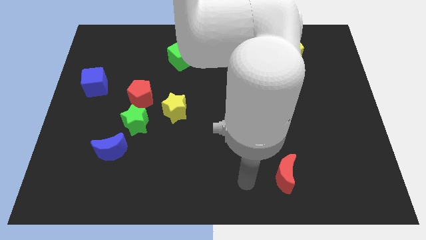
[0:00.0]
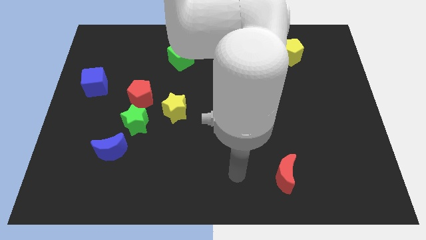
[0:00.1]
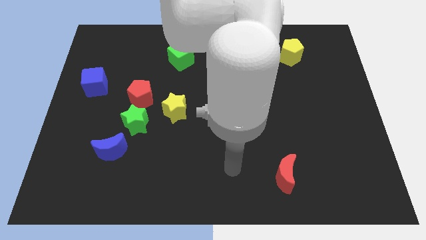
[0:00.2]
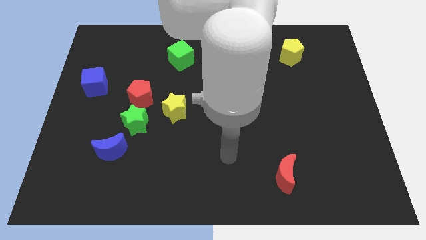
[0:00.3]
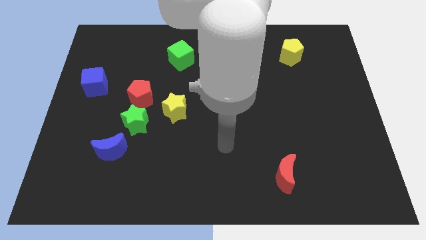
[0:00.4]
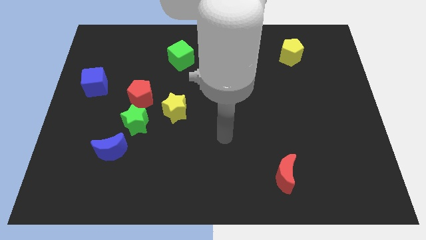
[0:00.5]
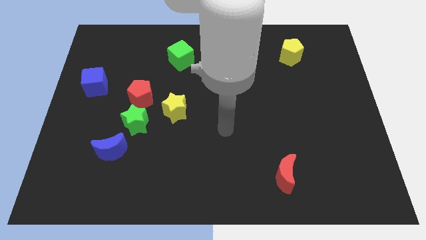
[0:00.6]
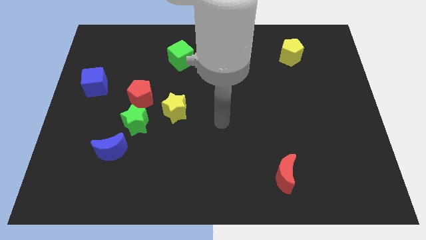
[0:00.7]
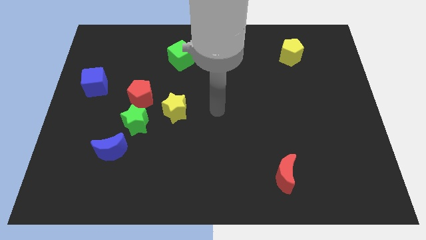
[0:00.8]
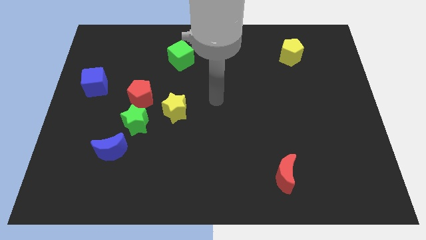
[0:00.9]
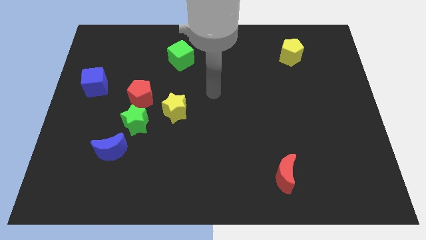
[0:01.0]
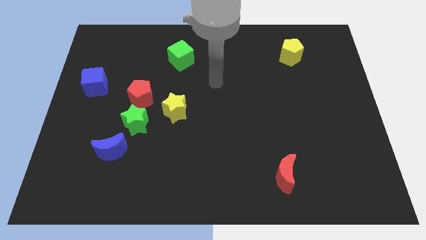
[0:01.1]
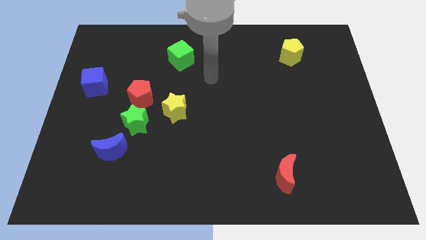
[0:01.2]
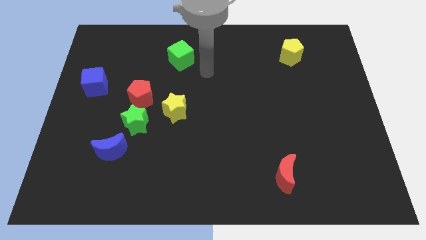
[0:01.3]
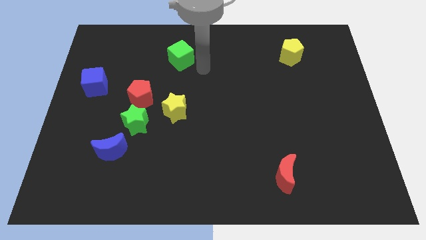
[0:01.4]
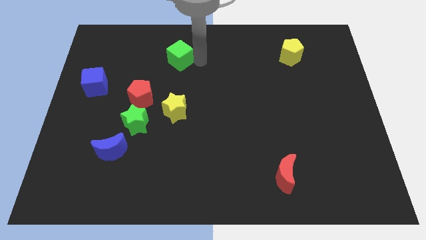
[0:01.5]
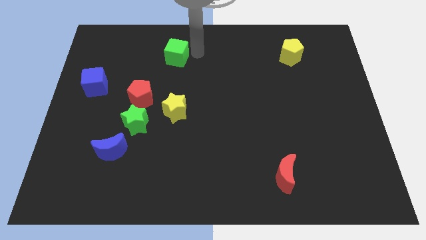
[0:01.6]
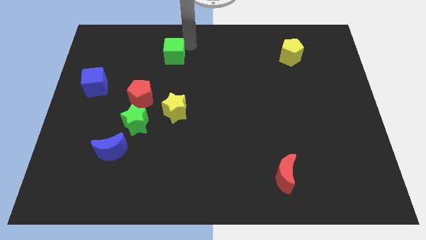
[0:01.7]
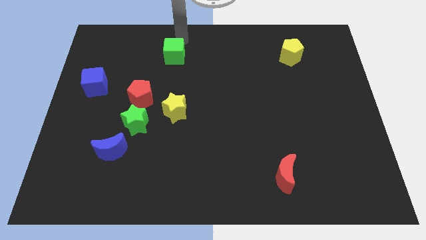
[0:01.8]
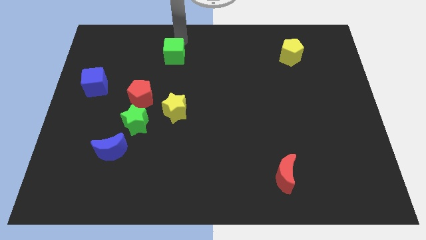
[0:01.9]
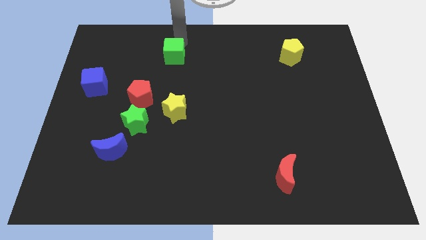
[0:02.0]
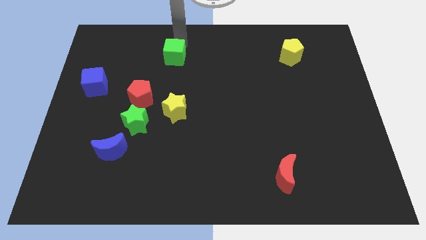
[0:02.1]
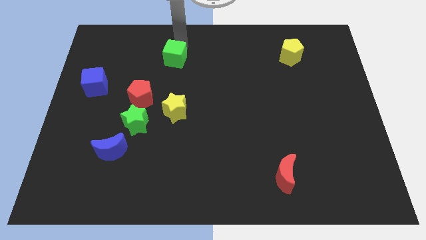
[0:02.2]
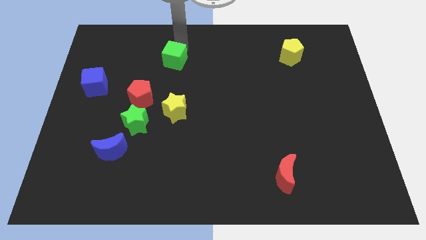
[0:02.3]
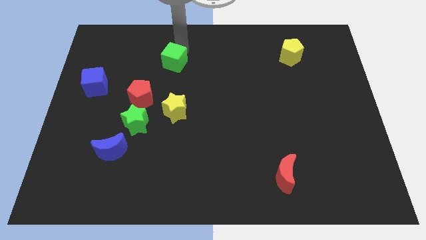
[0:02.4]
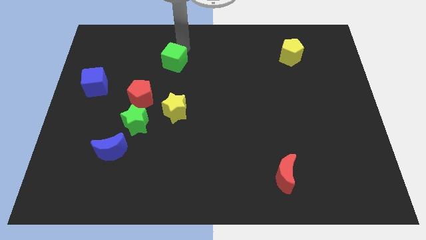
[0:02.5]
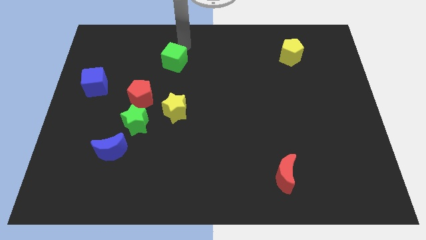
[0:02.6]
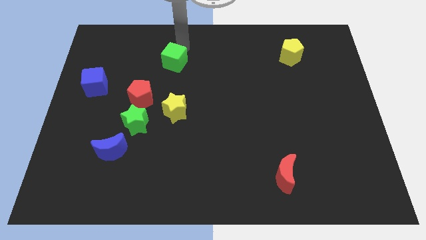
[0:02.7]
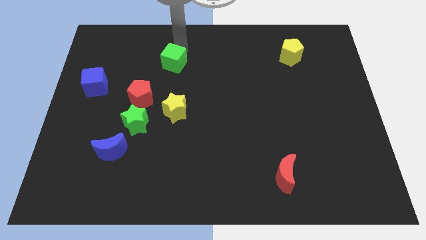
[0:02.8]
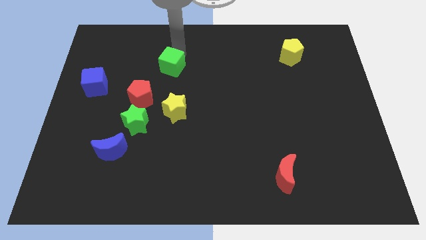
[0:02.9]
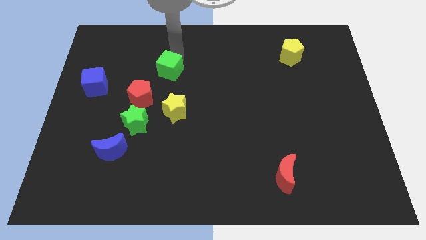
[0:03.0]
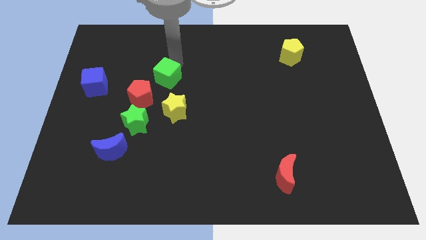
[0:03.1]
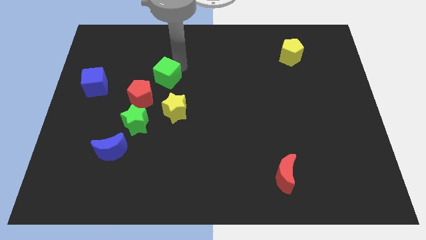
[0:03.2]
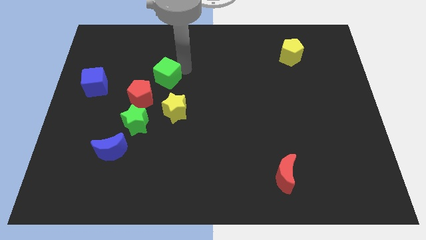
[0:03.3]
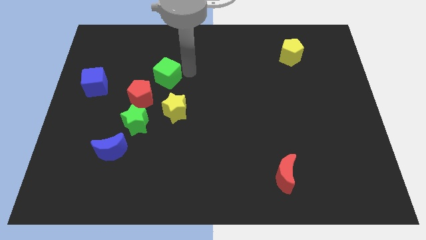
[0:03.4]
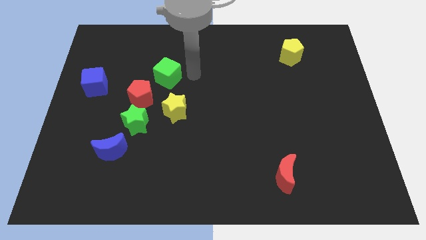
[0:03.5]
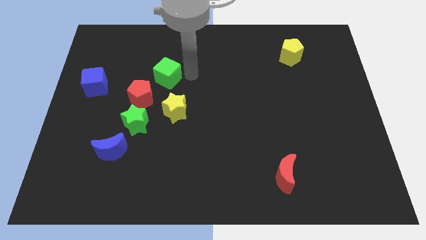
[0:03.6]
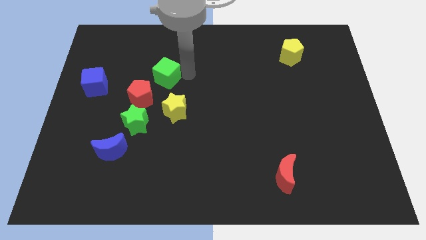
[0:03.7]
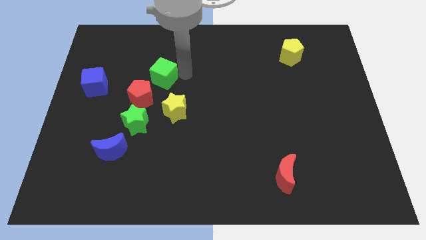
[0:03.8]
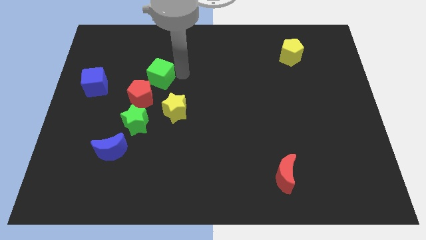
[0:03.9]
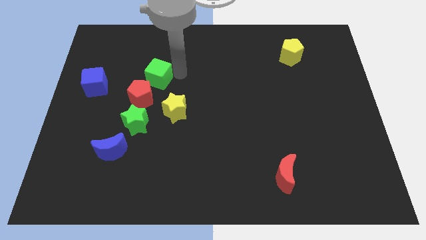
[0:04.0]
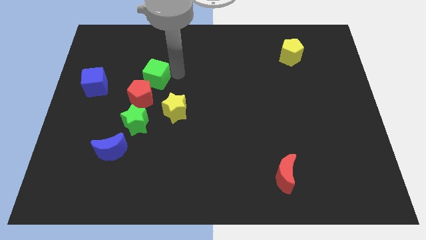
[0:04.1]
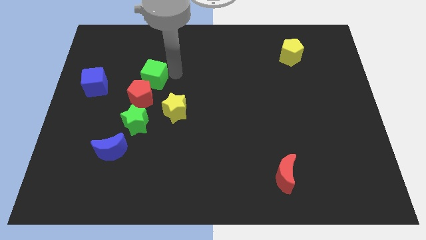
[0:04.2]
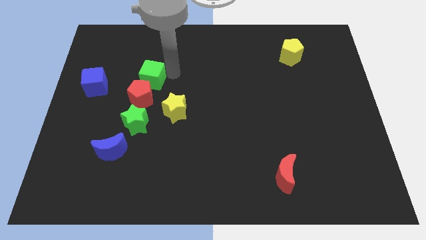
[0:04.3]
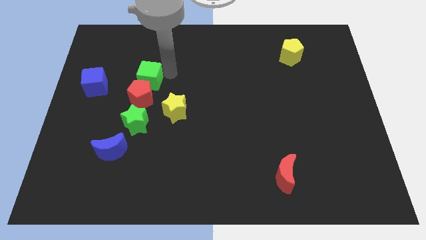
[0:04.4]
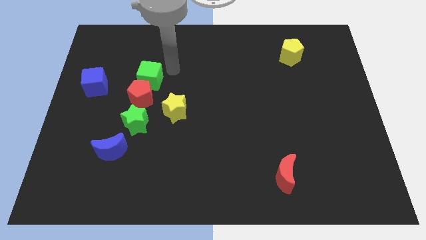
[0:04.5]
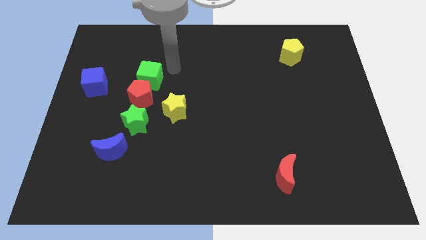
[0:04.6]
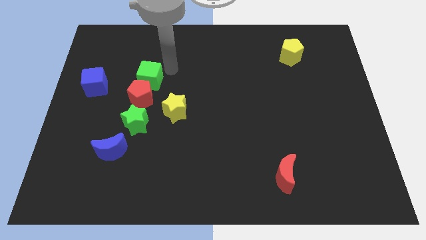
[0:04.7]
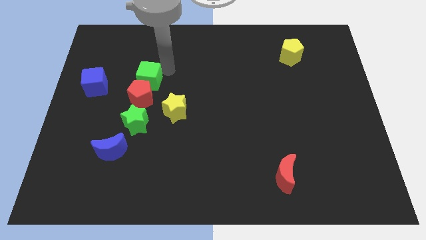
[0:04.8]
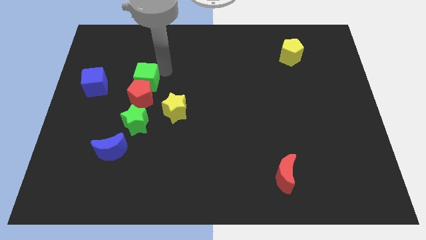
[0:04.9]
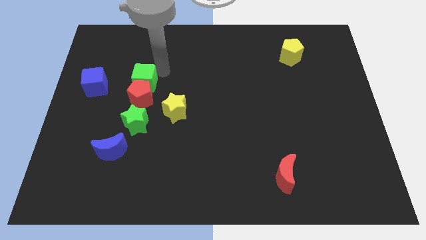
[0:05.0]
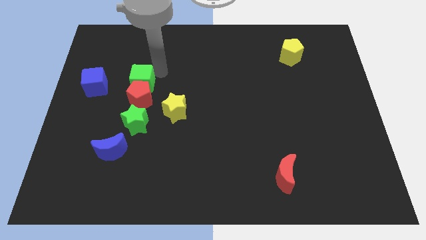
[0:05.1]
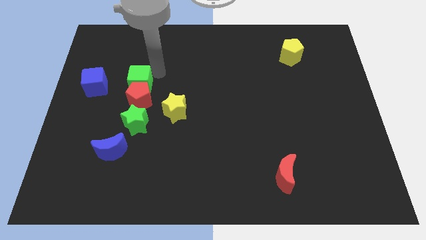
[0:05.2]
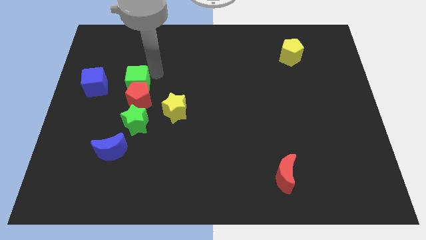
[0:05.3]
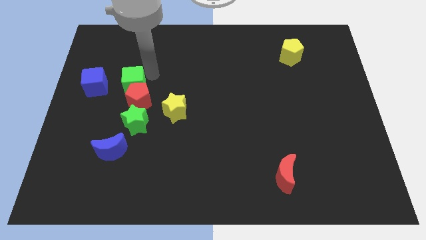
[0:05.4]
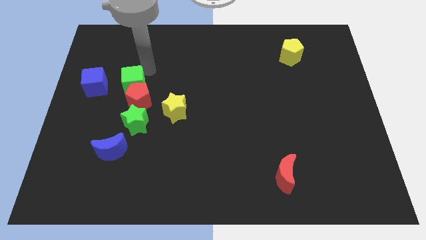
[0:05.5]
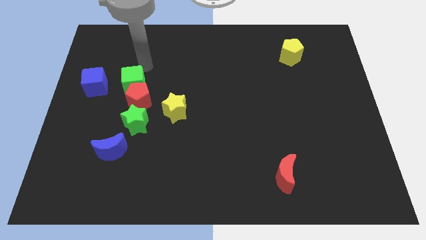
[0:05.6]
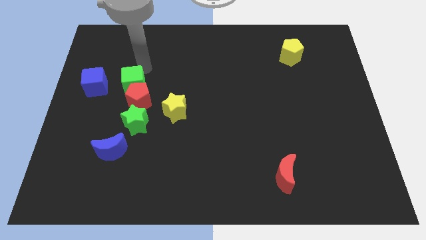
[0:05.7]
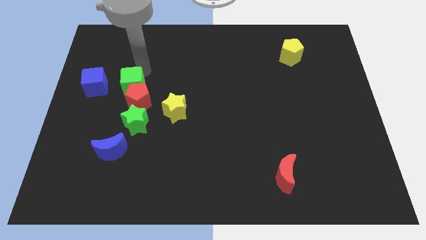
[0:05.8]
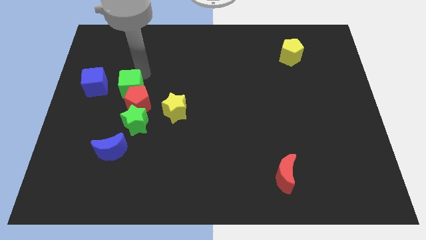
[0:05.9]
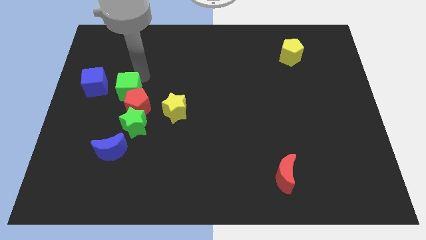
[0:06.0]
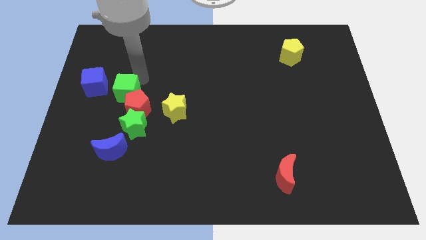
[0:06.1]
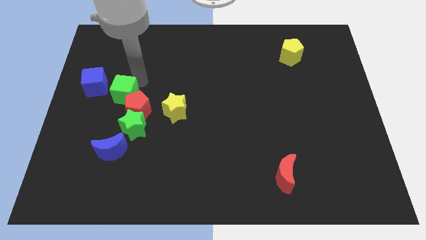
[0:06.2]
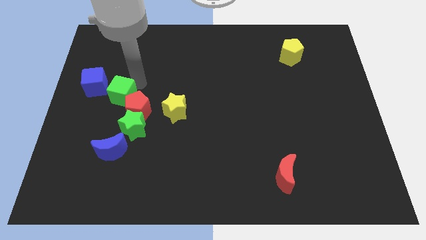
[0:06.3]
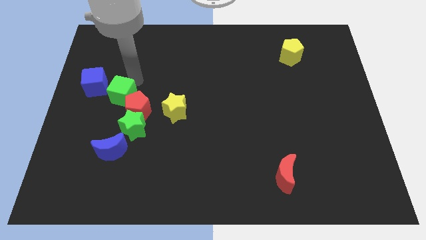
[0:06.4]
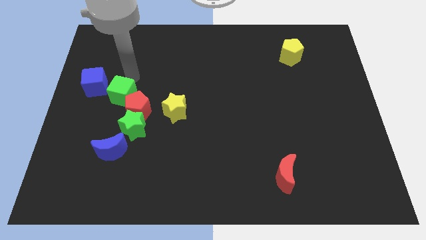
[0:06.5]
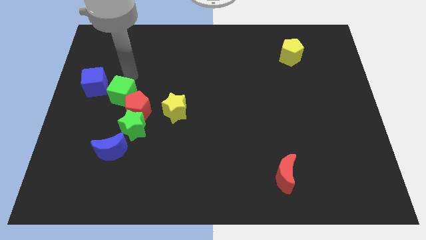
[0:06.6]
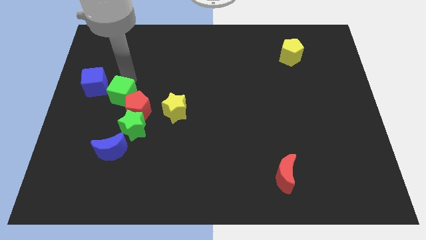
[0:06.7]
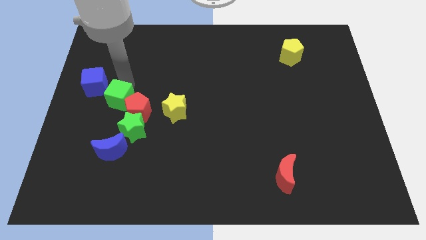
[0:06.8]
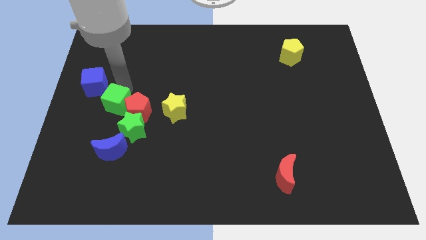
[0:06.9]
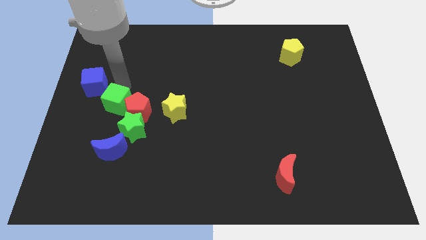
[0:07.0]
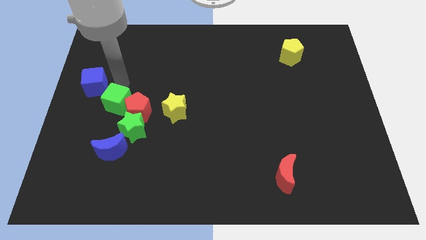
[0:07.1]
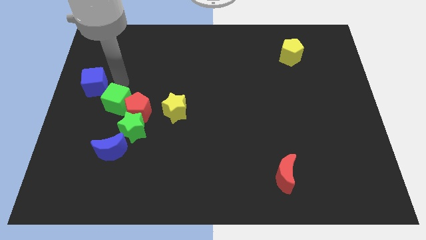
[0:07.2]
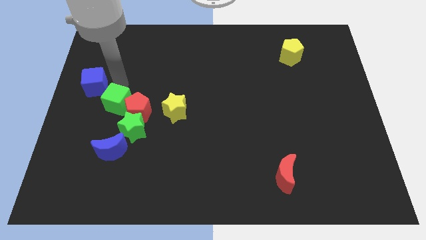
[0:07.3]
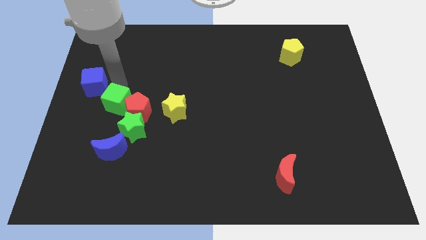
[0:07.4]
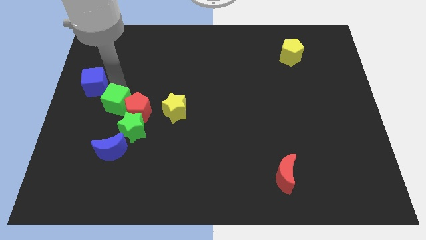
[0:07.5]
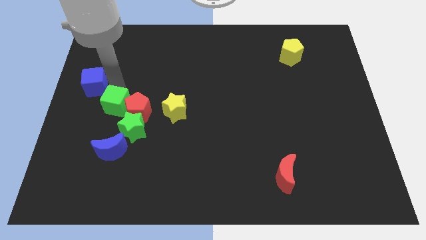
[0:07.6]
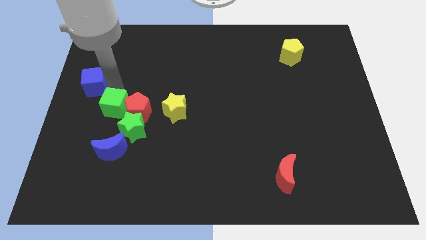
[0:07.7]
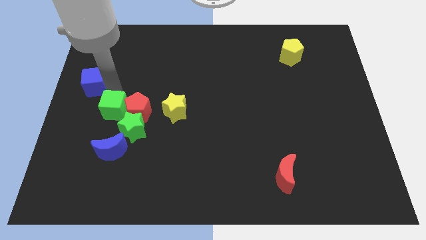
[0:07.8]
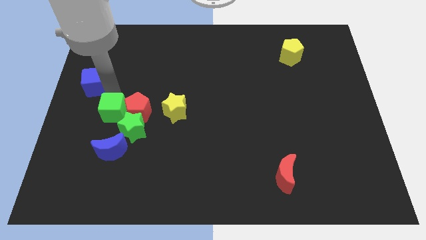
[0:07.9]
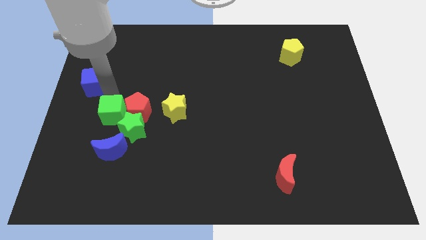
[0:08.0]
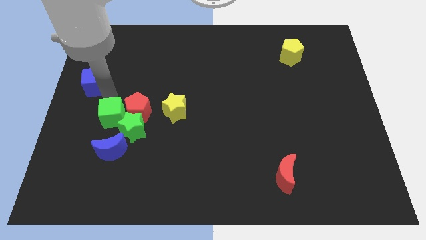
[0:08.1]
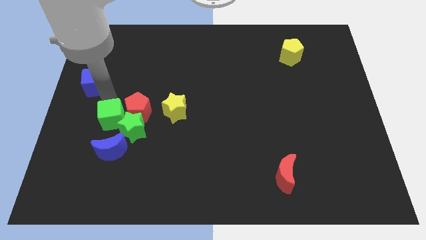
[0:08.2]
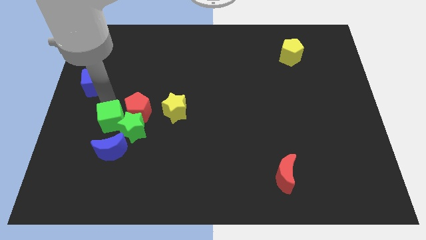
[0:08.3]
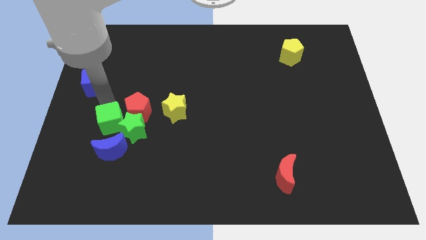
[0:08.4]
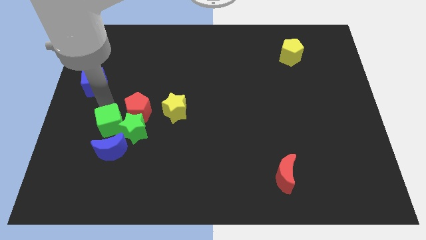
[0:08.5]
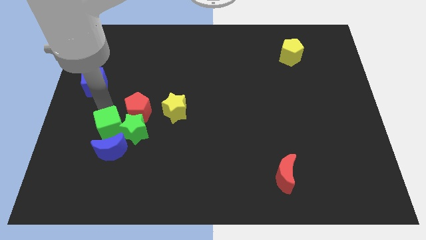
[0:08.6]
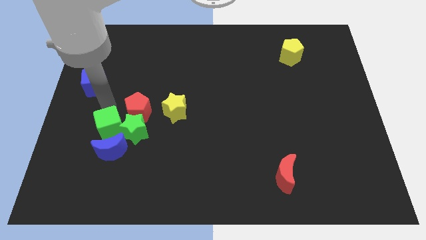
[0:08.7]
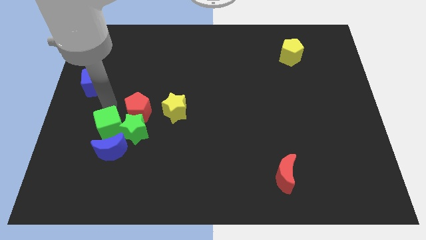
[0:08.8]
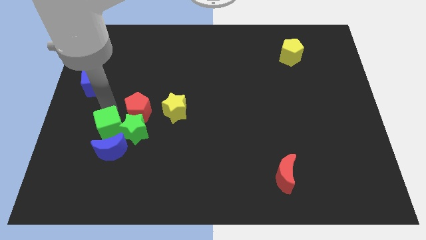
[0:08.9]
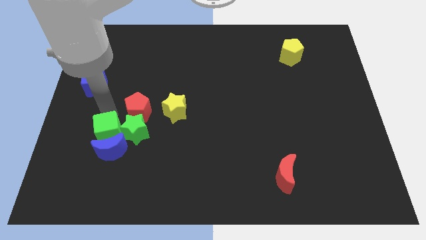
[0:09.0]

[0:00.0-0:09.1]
slide the green cube to the blue moon
